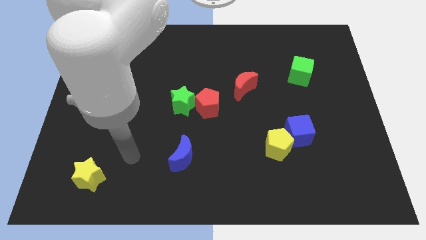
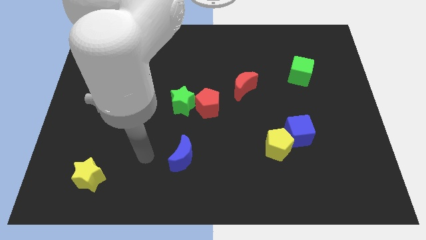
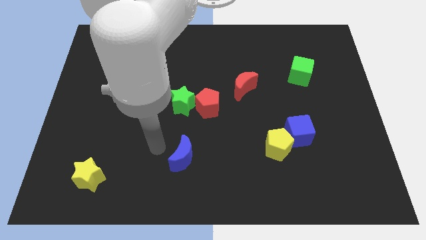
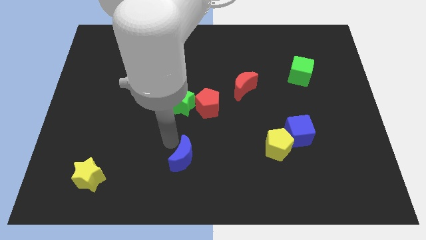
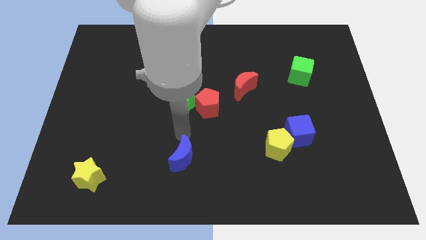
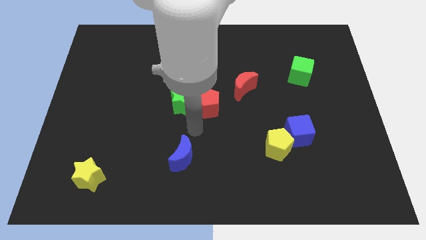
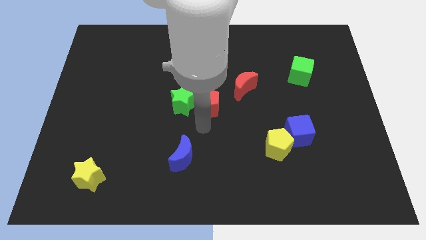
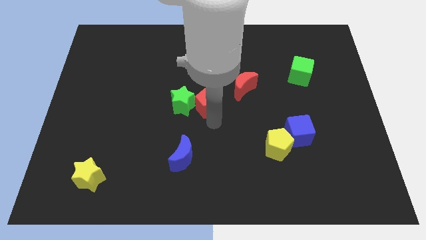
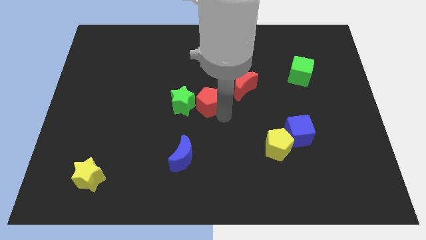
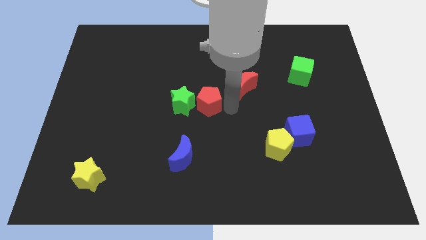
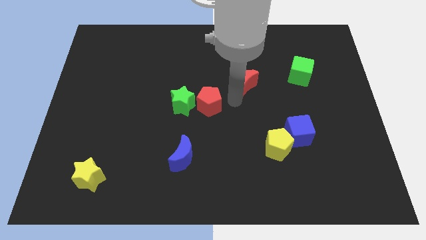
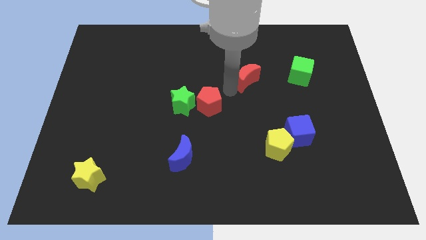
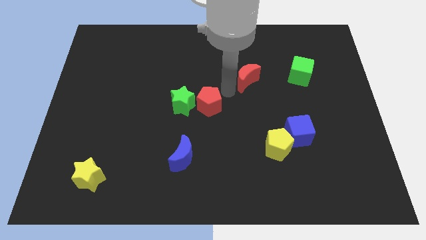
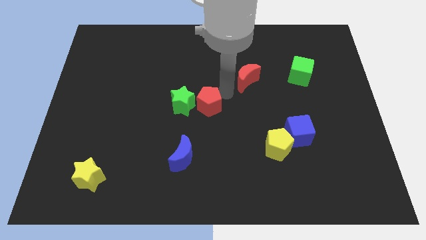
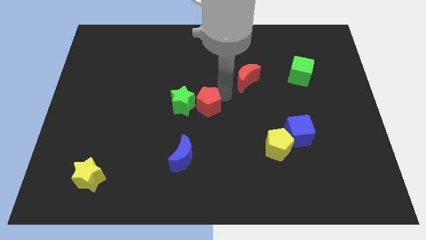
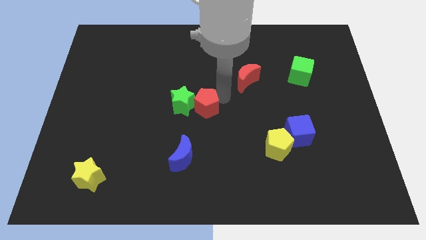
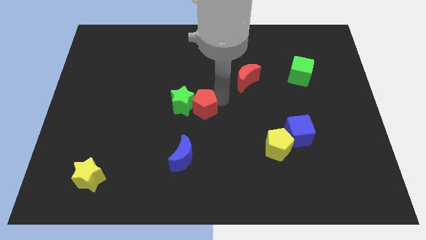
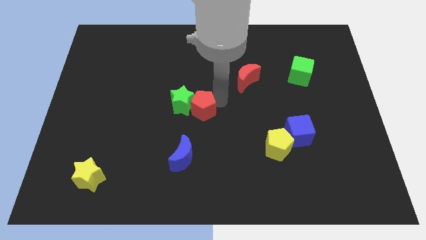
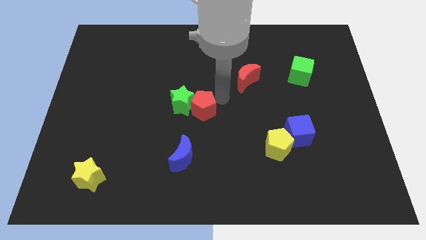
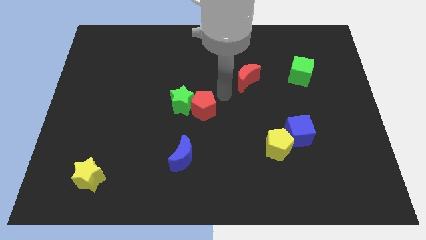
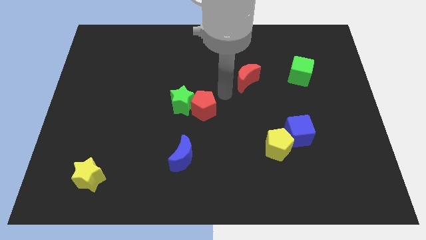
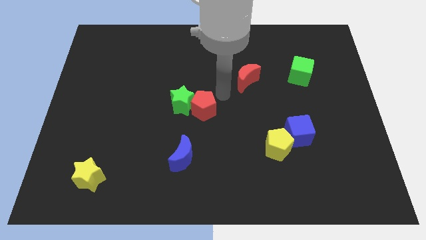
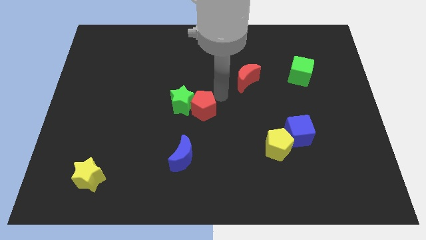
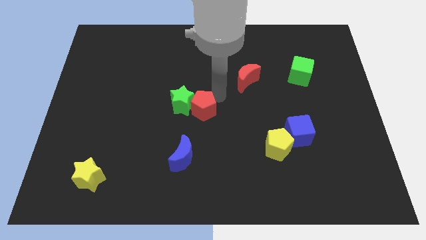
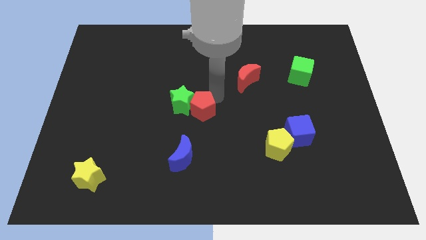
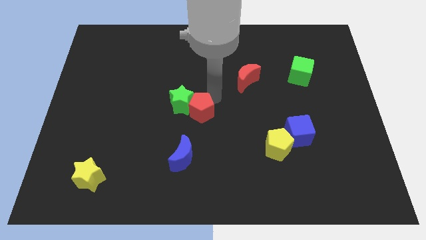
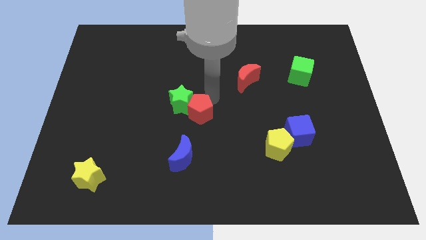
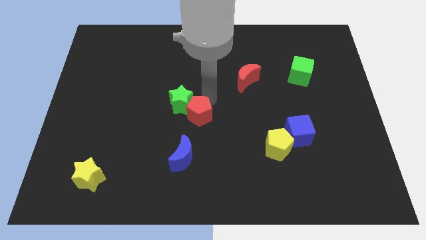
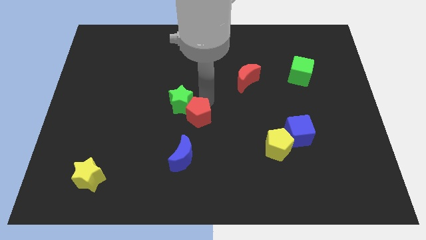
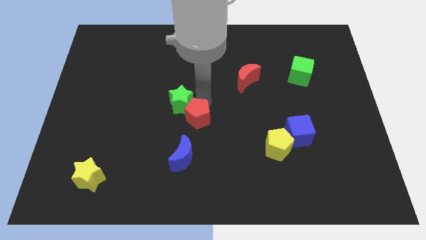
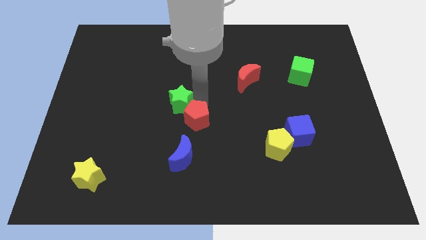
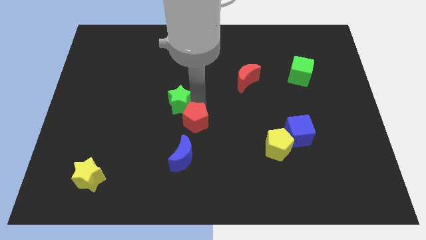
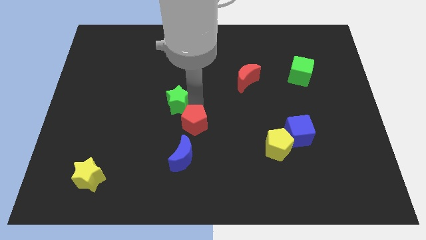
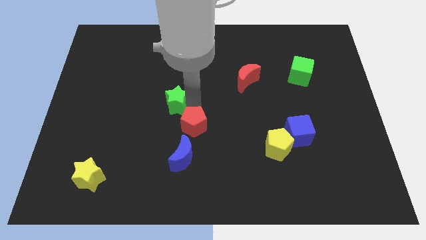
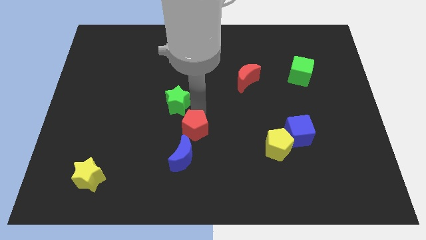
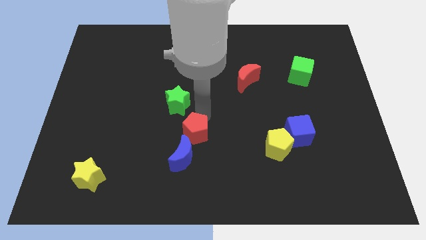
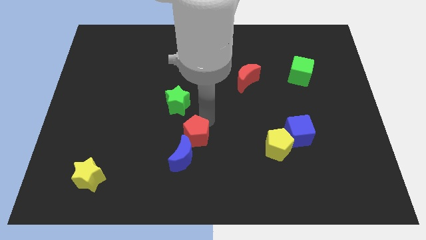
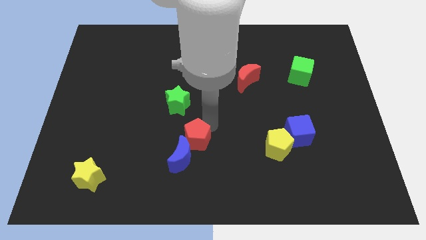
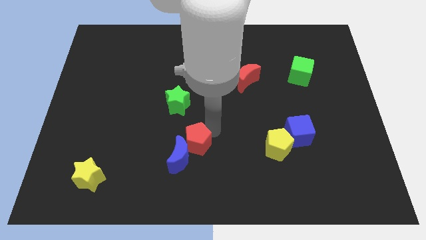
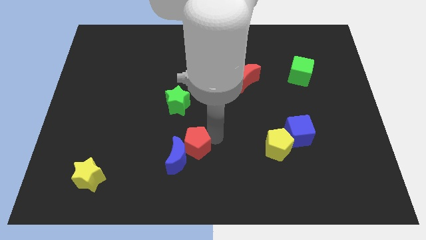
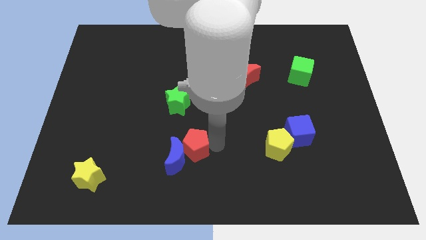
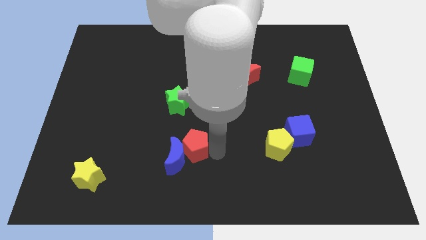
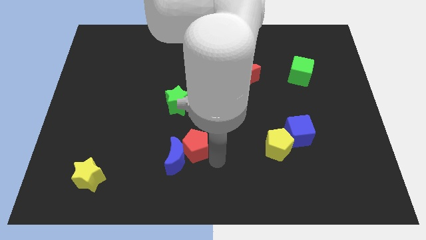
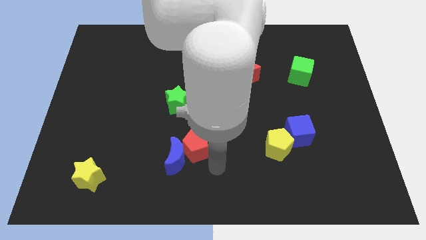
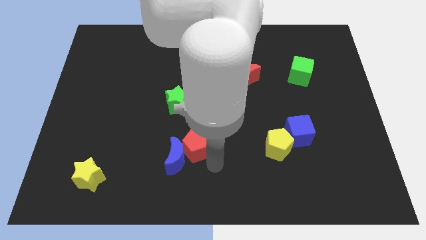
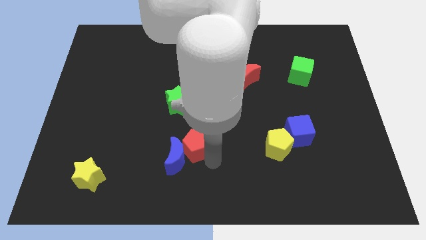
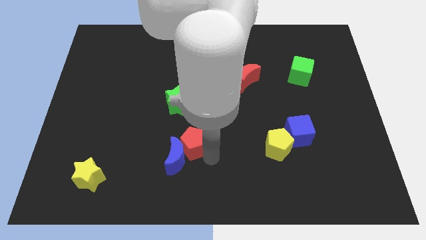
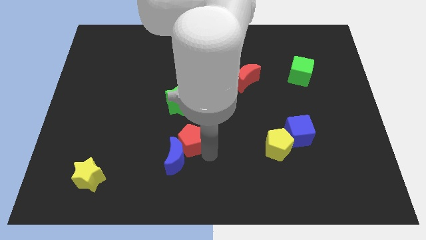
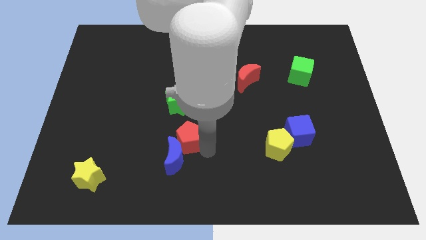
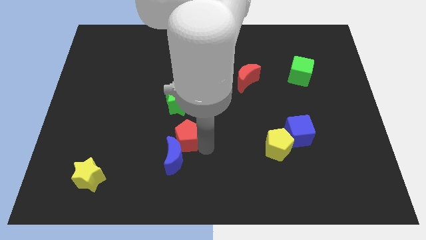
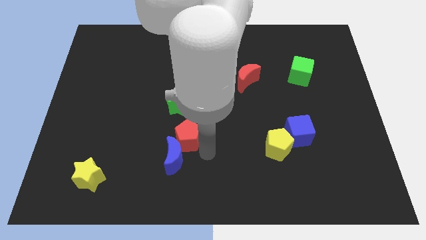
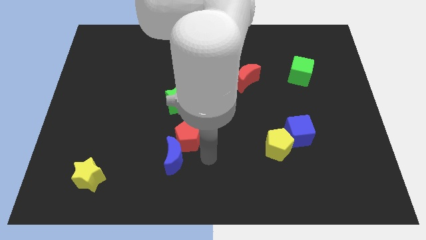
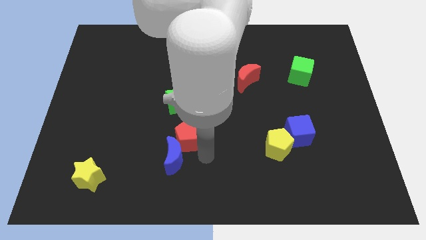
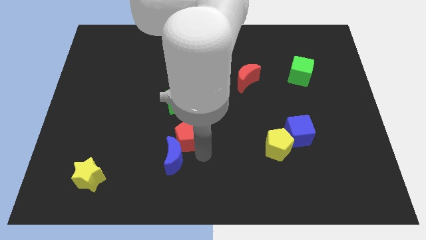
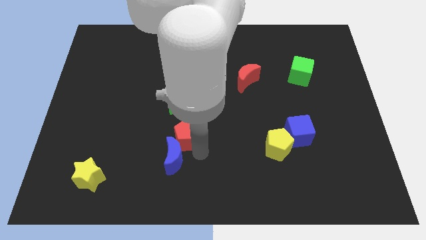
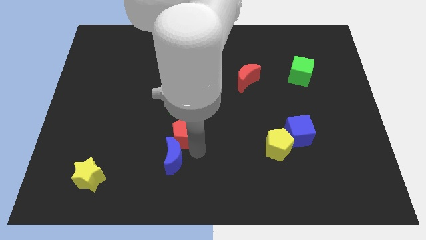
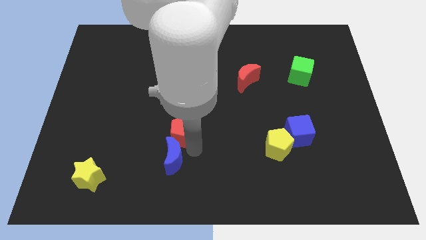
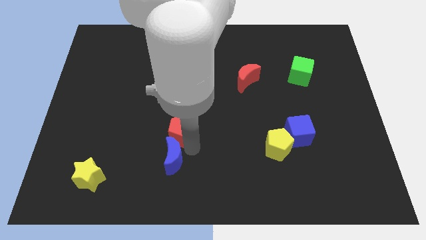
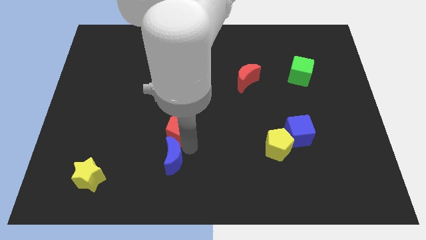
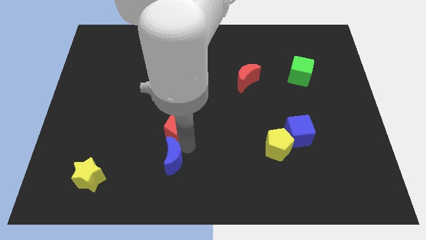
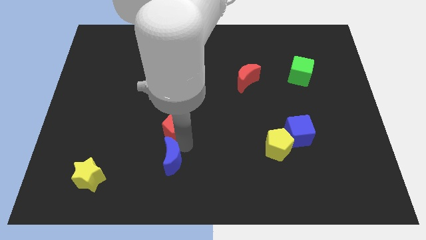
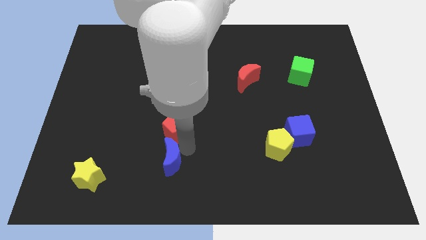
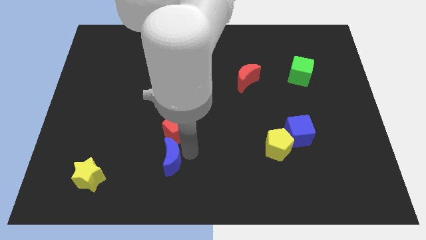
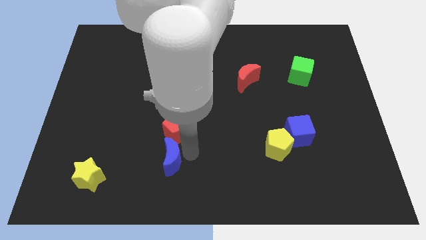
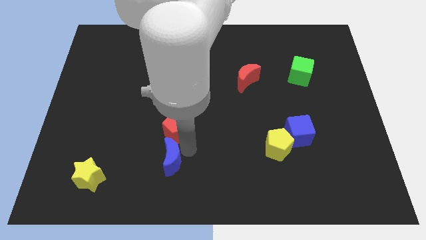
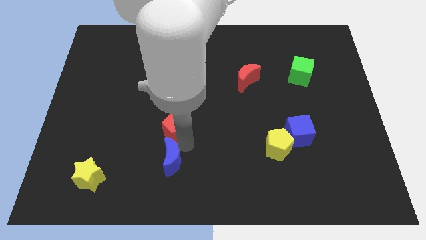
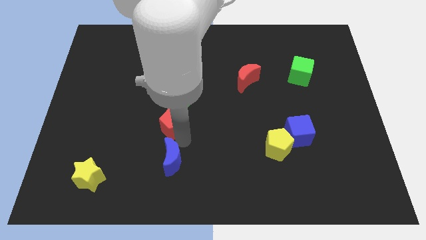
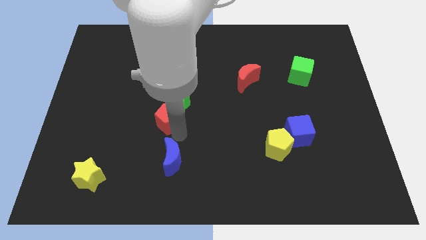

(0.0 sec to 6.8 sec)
move the red pentagon left a little

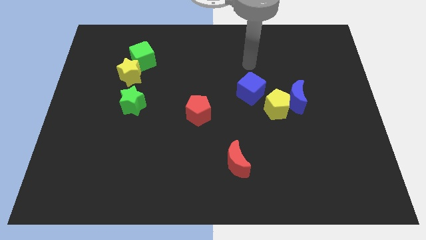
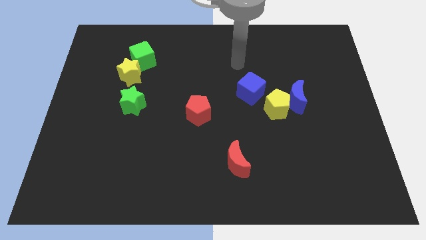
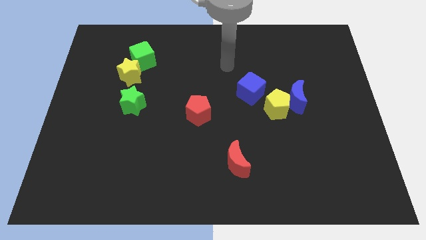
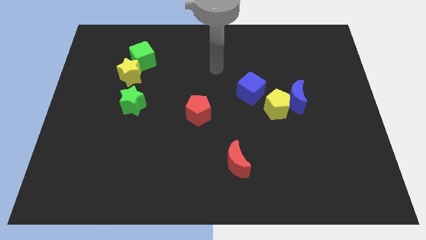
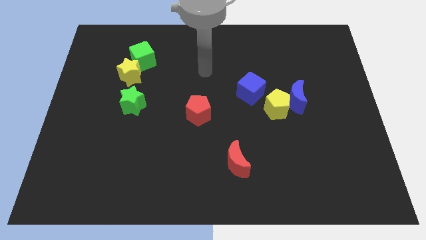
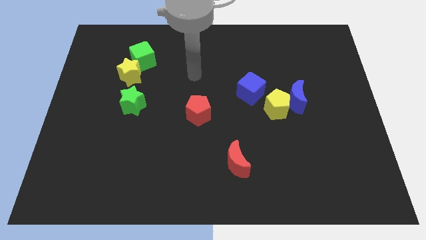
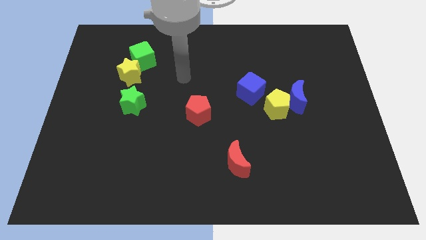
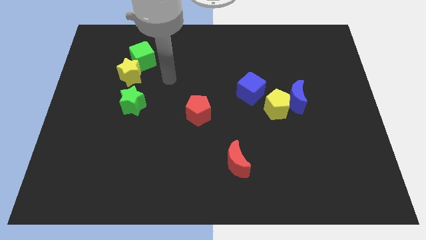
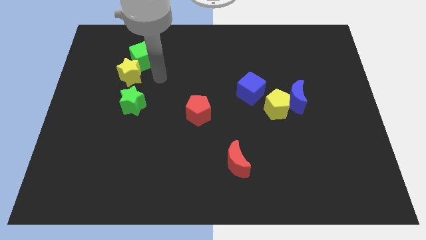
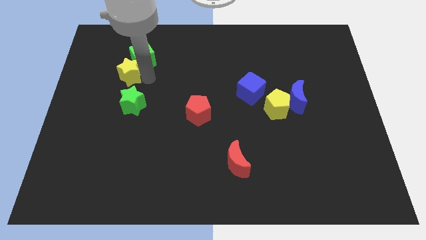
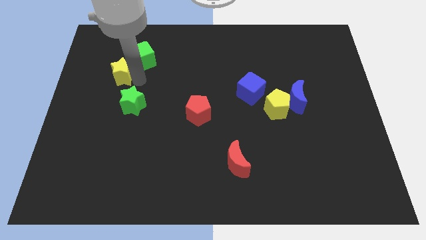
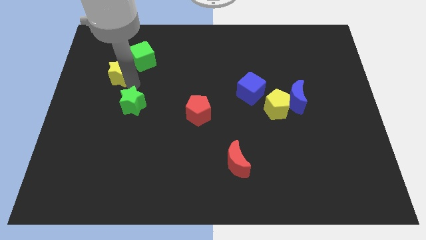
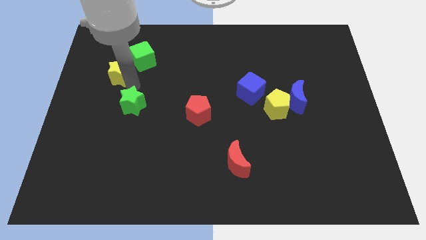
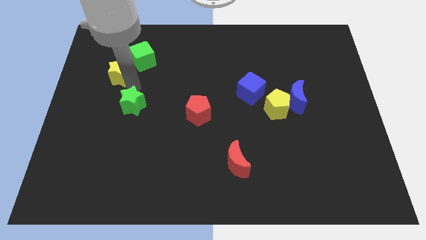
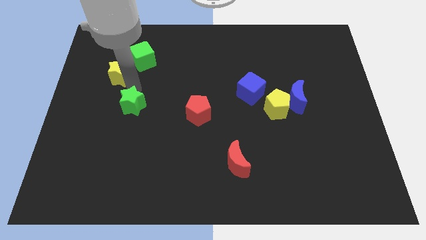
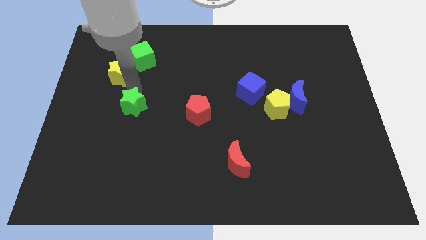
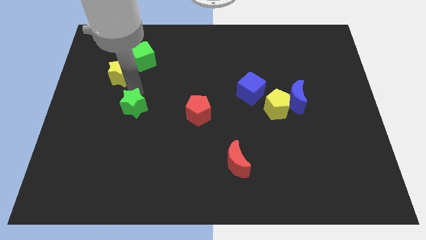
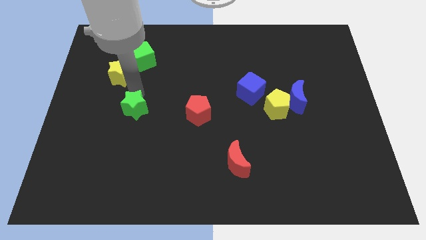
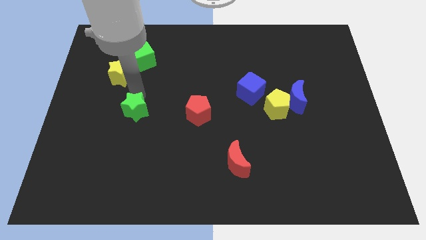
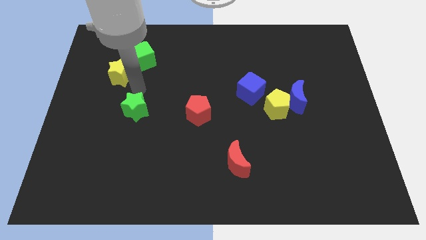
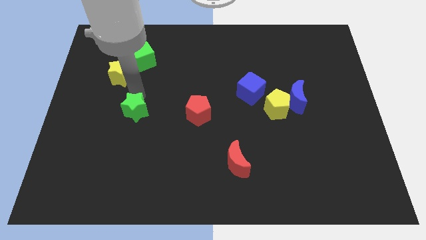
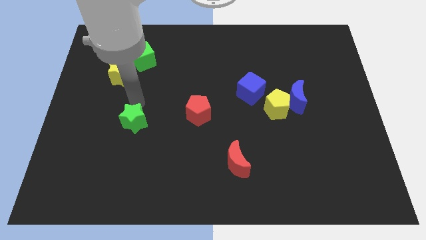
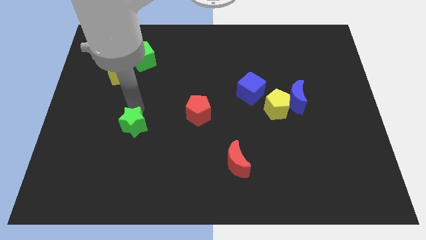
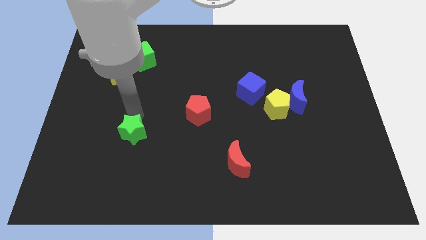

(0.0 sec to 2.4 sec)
push the green star a little bit down
